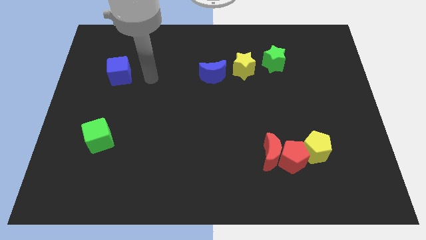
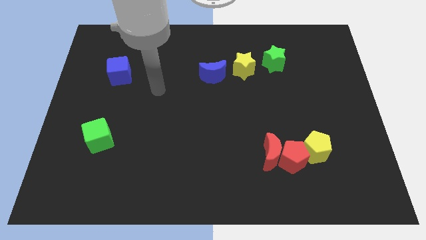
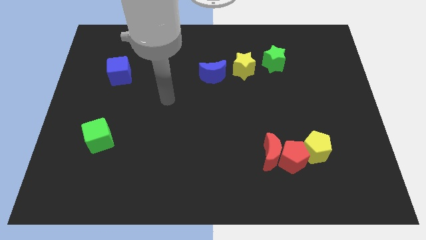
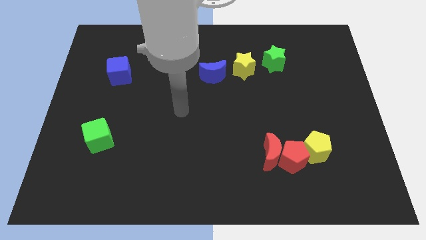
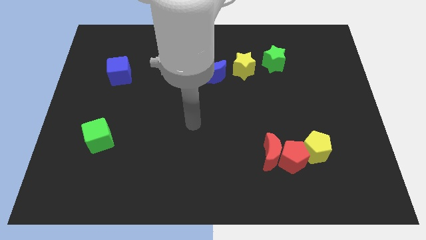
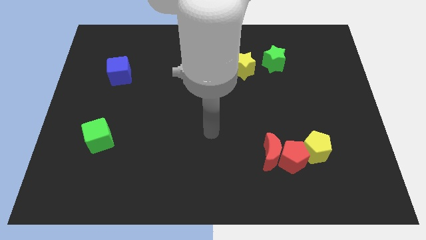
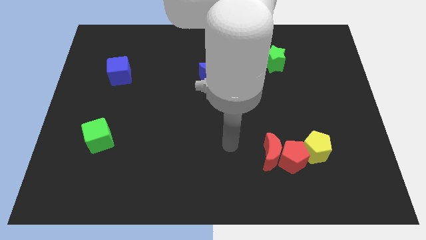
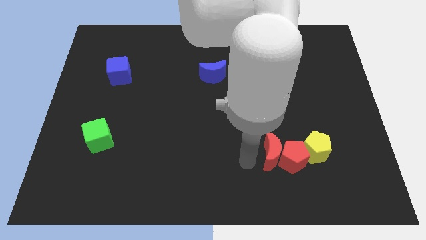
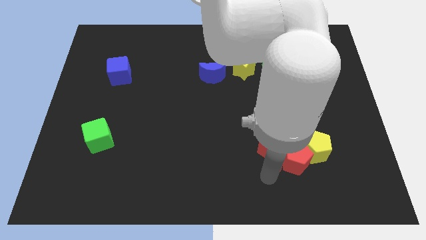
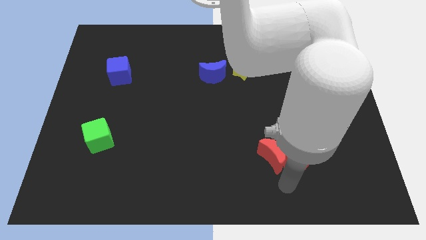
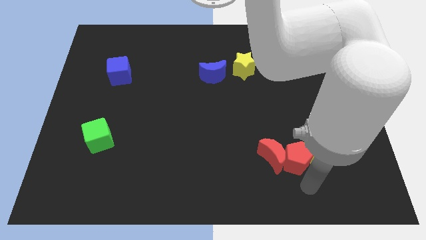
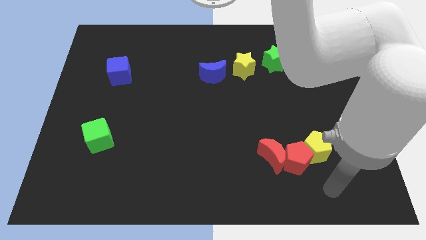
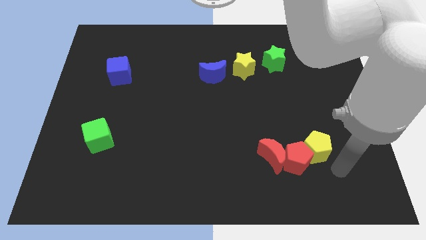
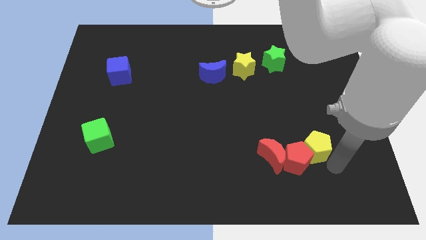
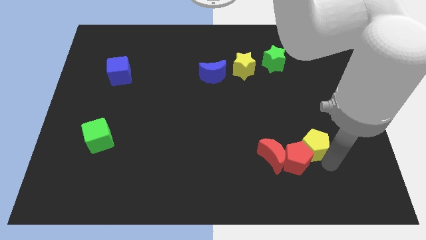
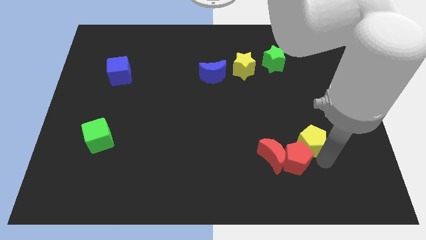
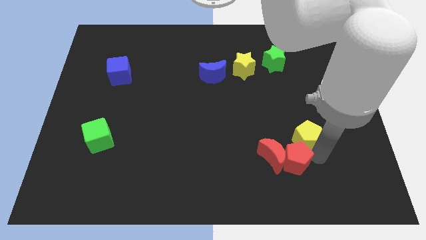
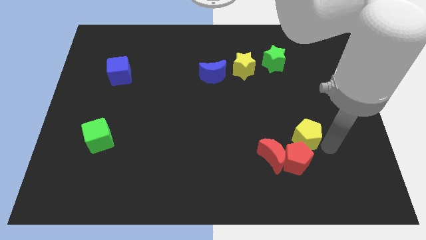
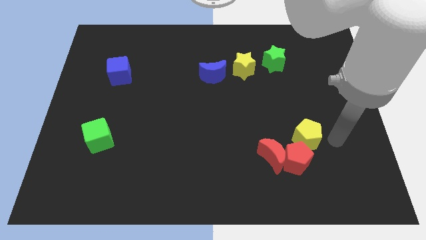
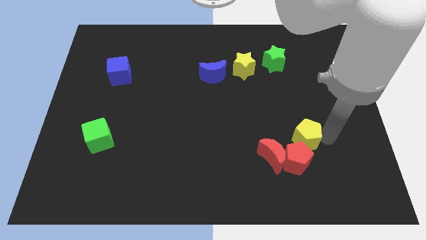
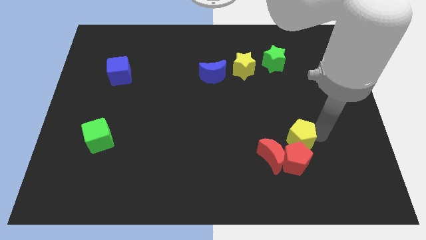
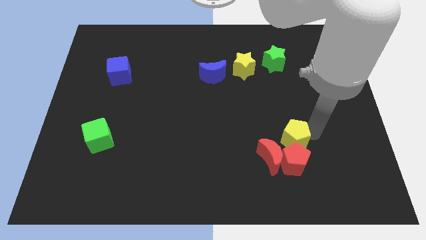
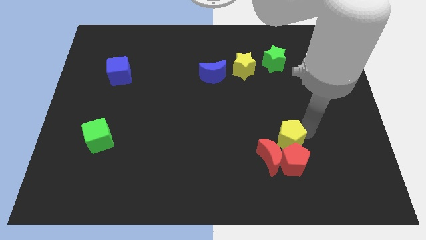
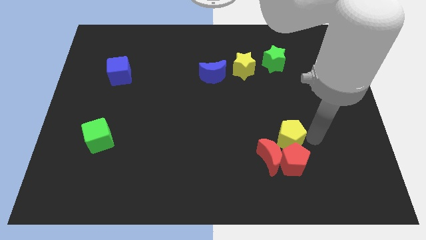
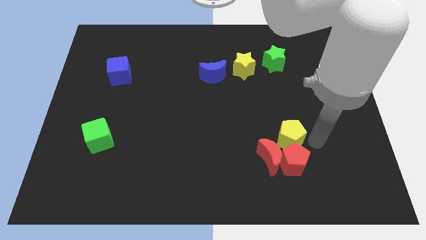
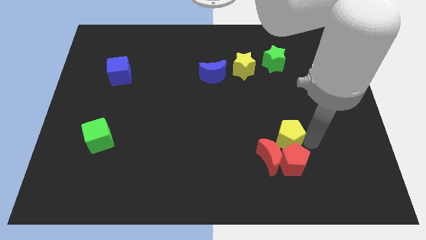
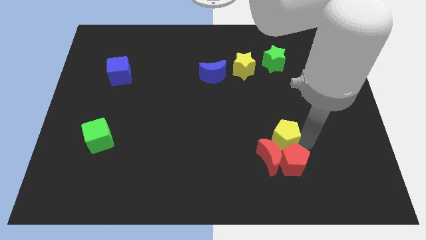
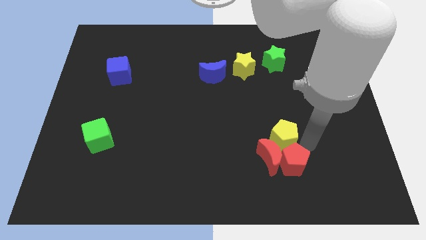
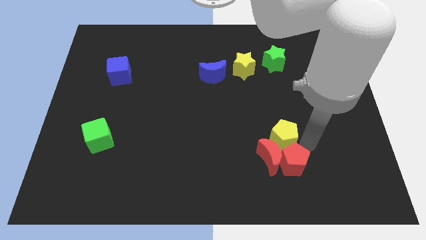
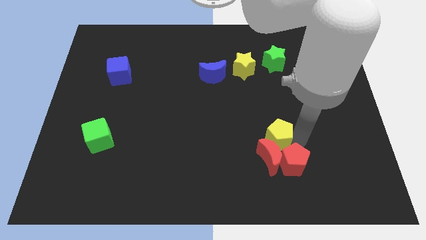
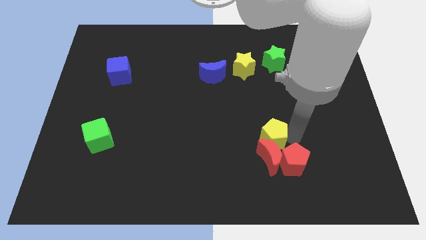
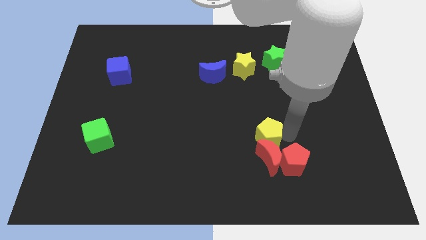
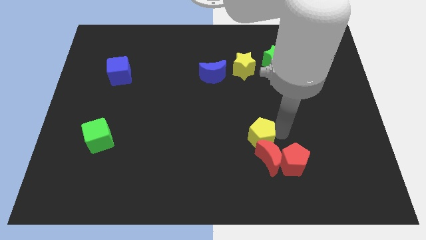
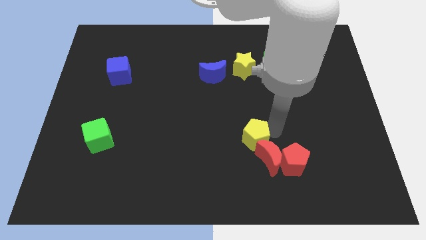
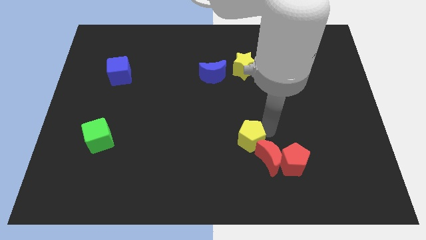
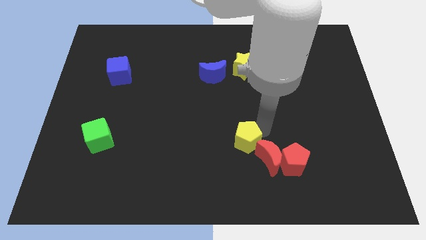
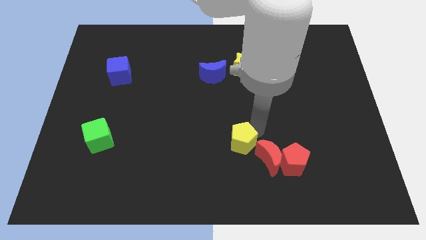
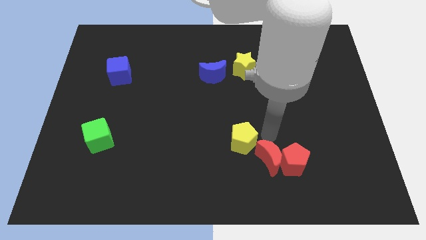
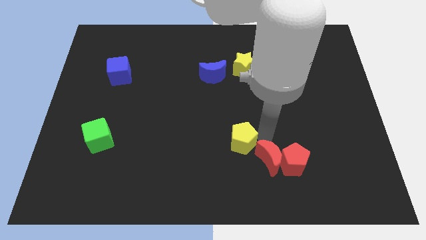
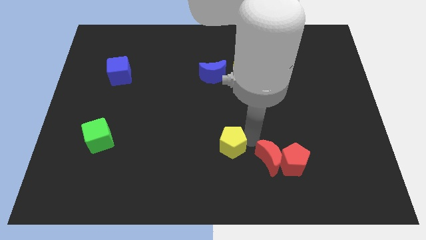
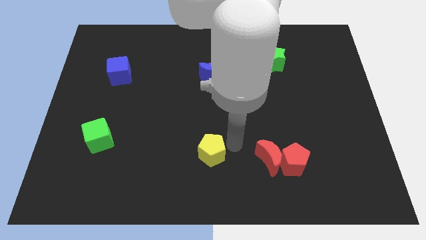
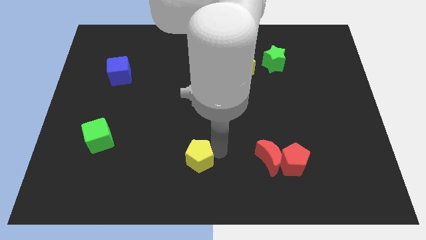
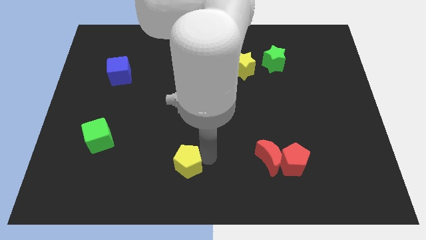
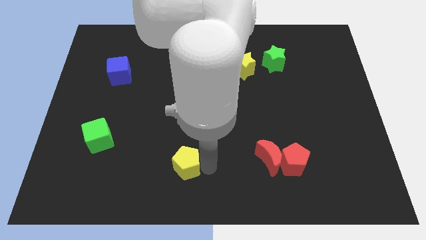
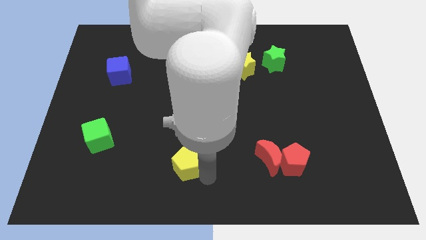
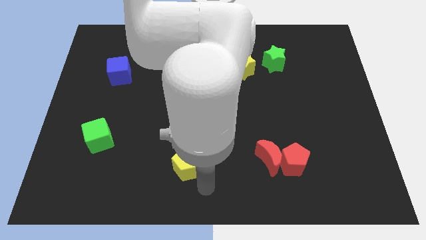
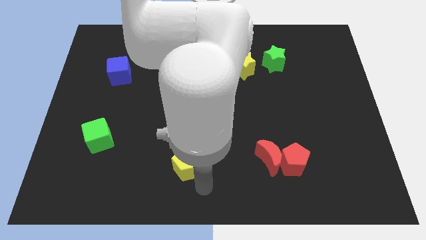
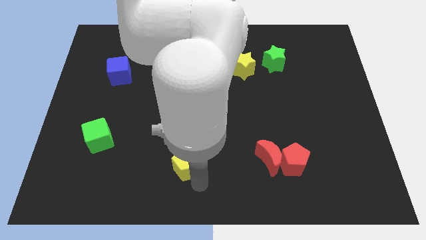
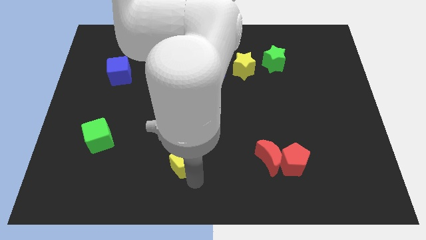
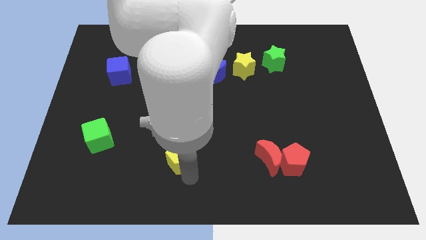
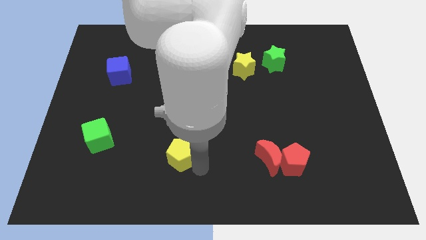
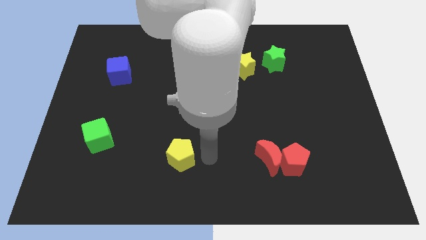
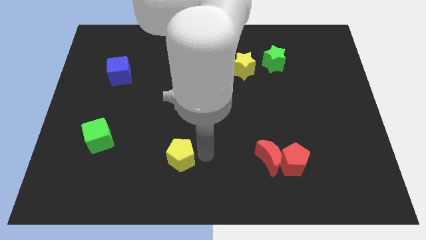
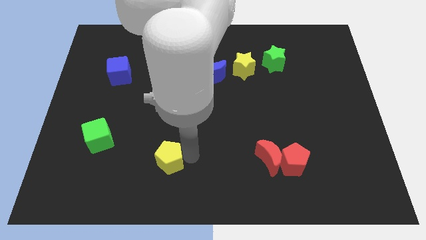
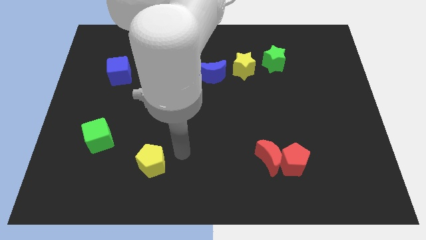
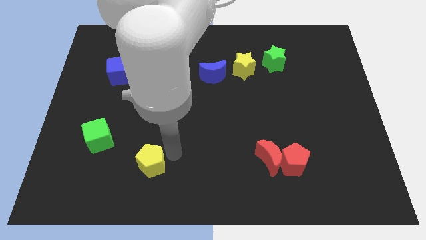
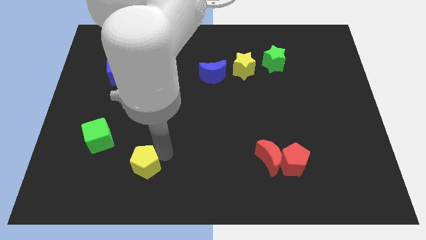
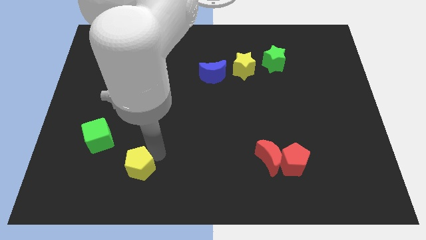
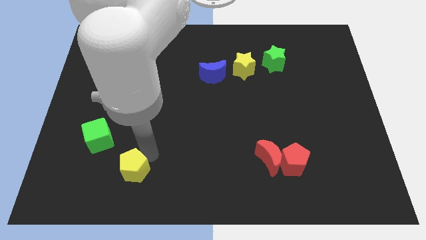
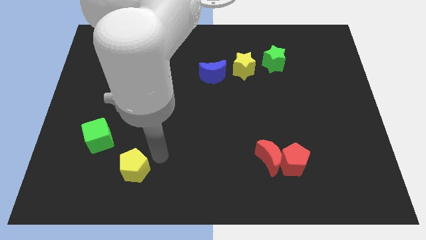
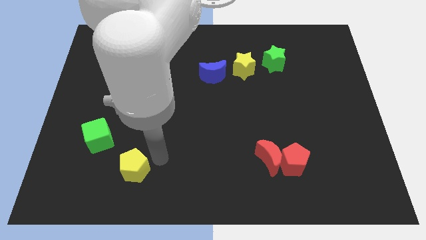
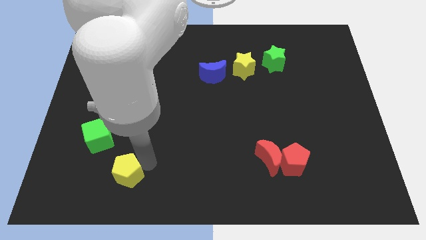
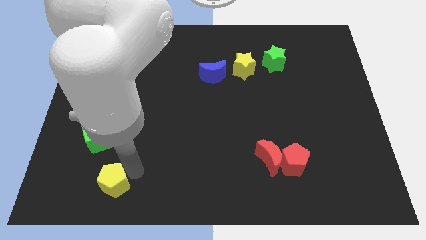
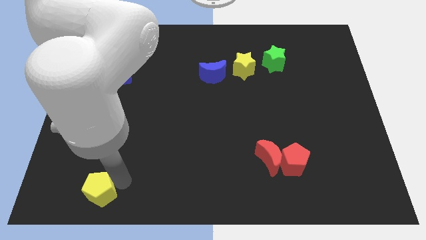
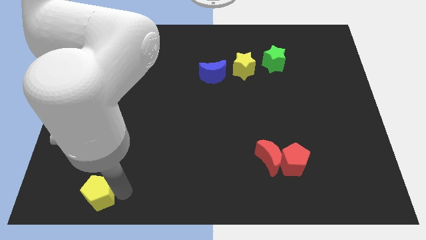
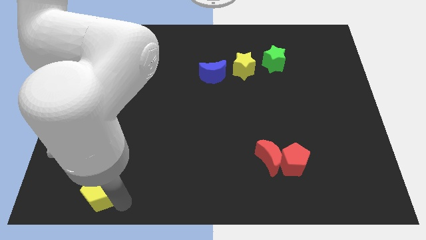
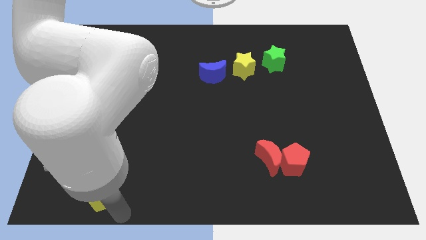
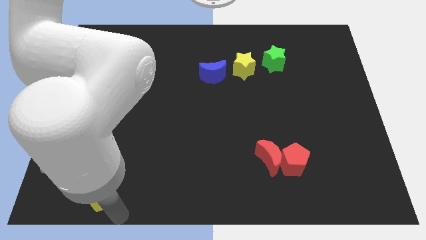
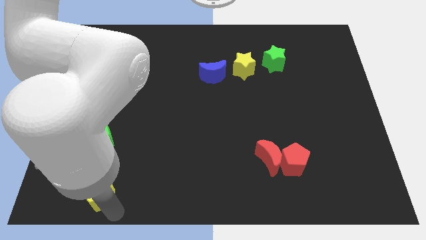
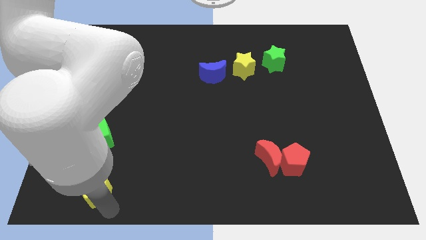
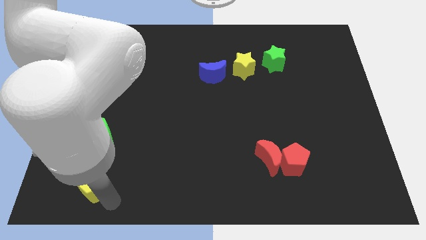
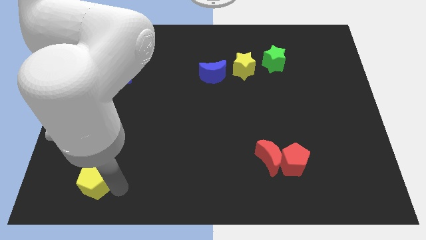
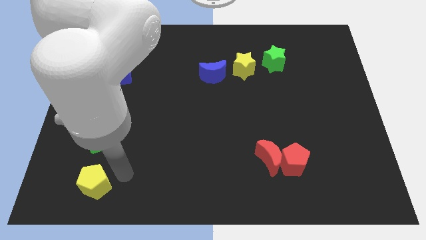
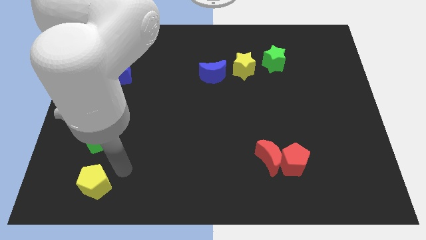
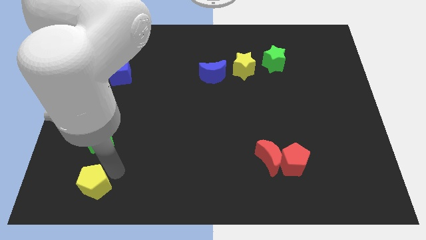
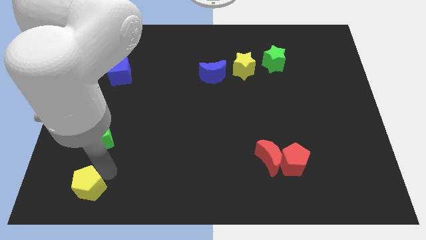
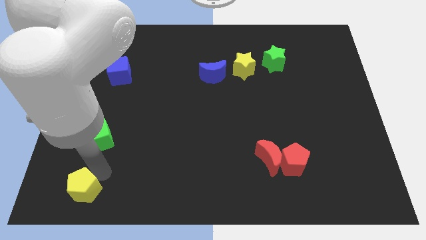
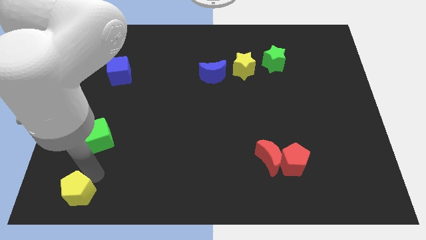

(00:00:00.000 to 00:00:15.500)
put the yellow pentagon to the bottom left corner
